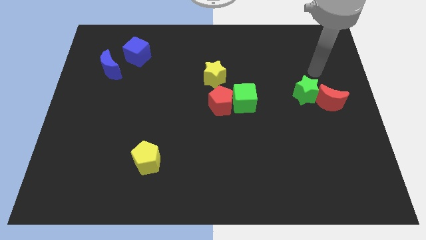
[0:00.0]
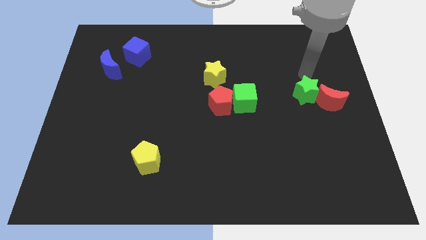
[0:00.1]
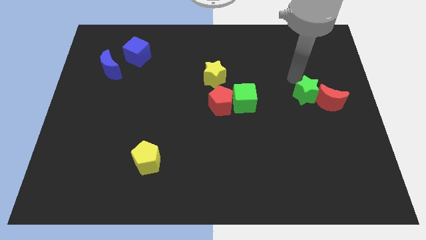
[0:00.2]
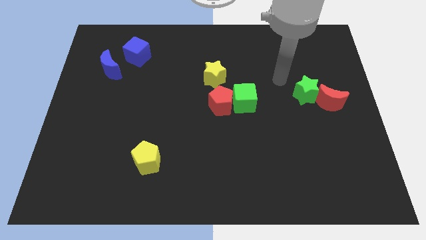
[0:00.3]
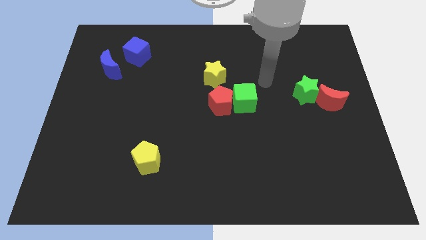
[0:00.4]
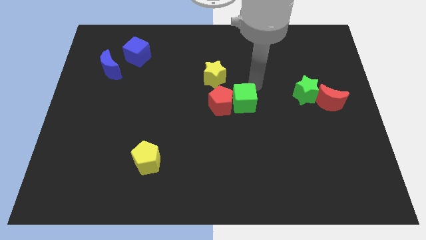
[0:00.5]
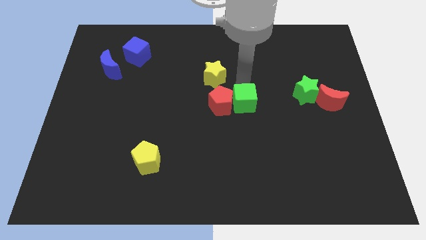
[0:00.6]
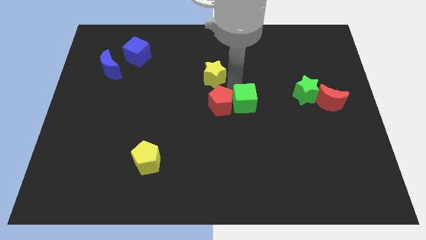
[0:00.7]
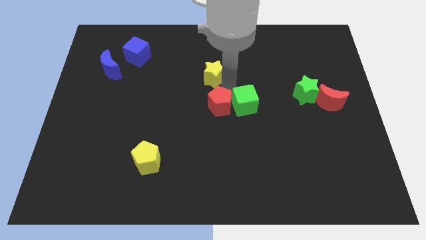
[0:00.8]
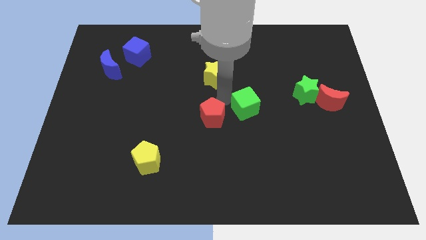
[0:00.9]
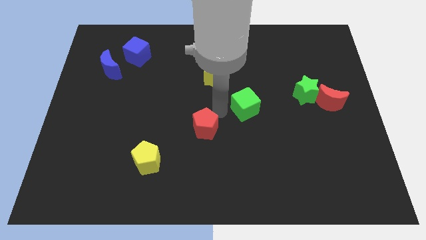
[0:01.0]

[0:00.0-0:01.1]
move the green cube away from the red pentagon

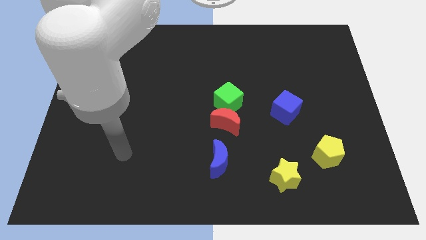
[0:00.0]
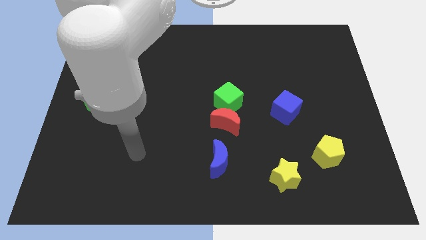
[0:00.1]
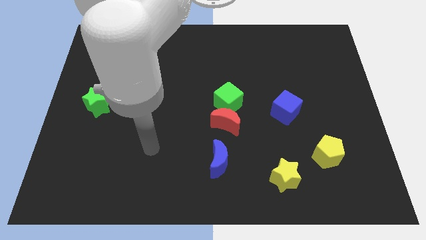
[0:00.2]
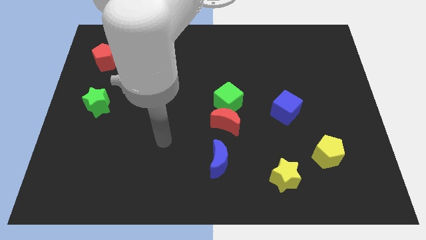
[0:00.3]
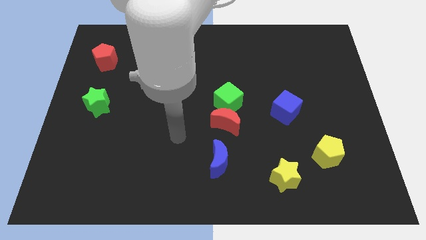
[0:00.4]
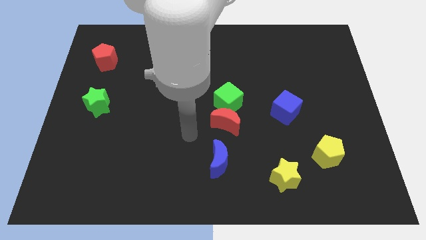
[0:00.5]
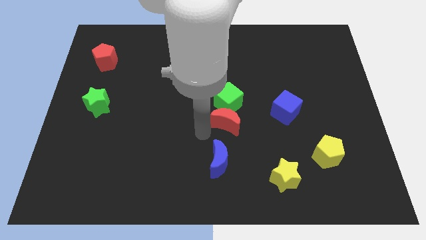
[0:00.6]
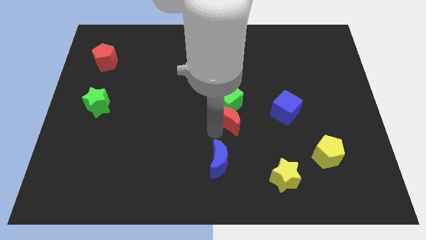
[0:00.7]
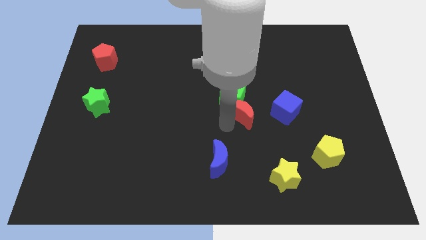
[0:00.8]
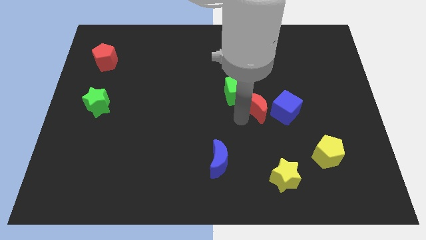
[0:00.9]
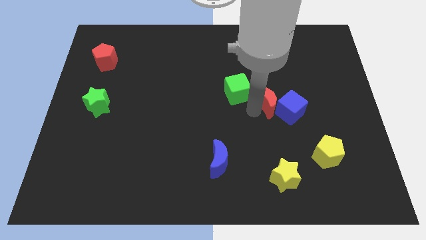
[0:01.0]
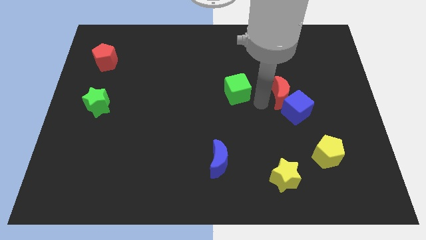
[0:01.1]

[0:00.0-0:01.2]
separate the green cube from the red moon

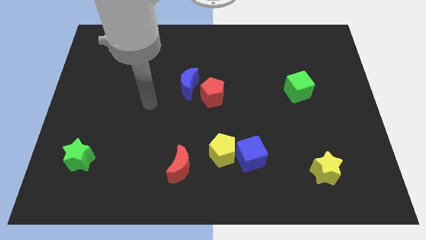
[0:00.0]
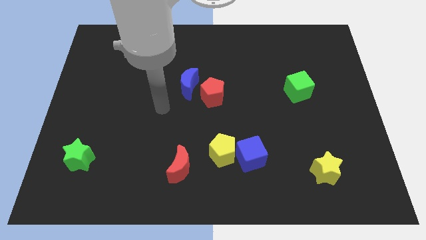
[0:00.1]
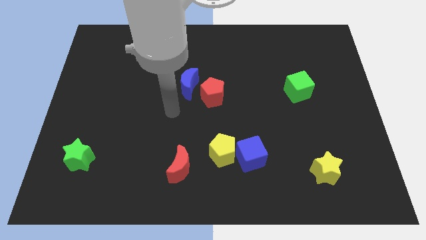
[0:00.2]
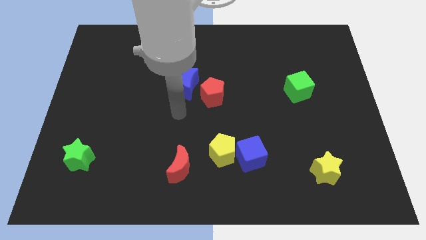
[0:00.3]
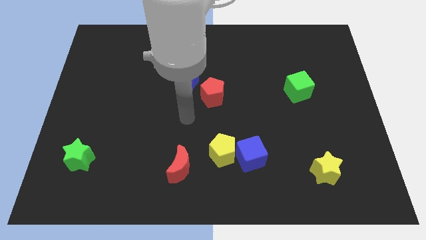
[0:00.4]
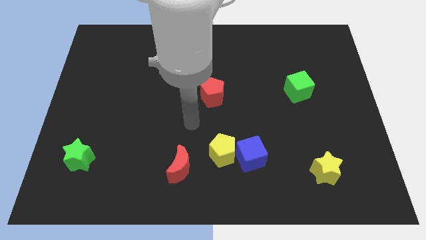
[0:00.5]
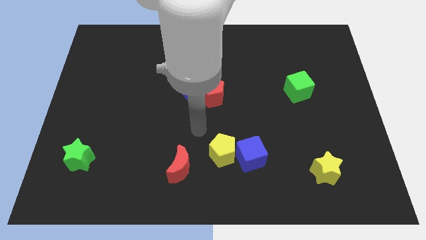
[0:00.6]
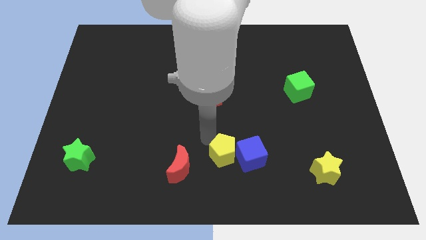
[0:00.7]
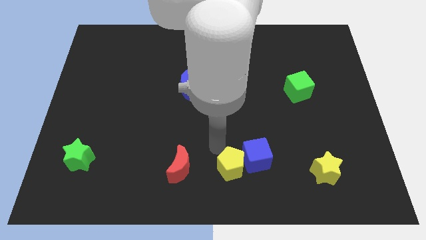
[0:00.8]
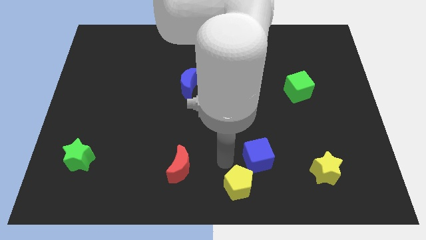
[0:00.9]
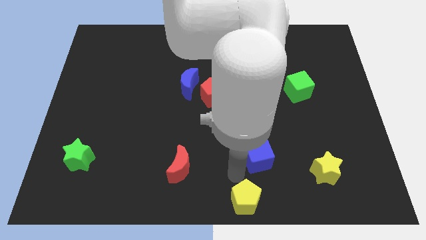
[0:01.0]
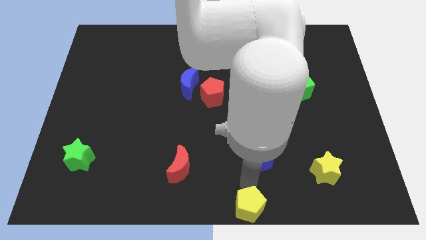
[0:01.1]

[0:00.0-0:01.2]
pull the blue cube apart from the yellow pentagon

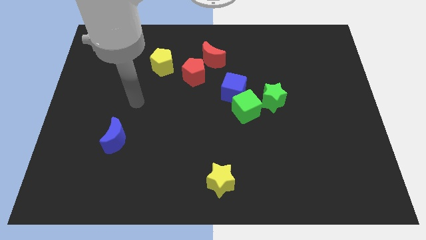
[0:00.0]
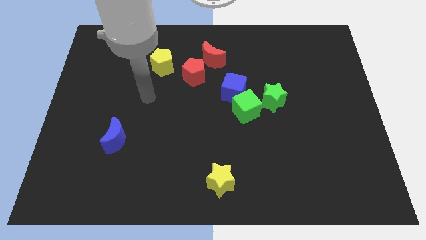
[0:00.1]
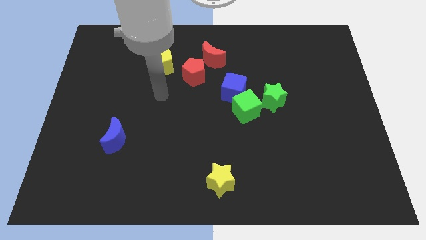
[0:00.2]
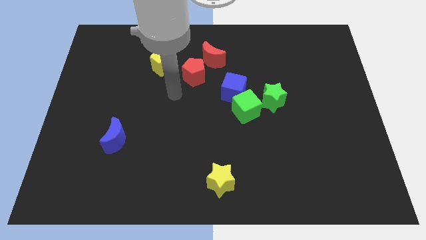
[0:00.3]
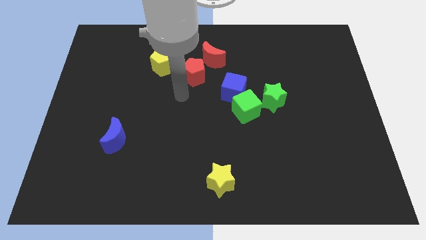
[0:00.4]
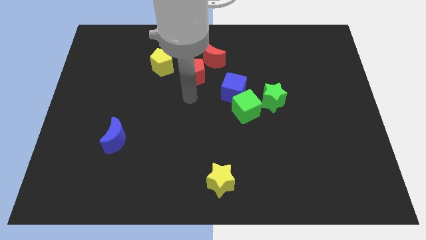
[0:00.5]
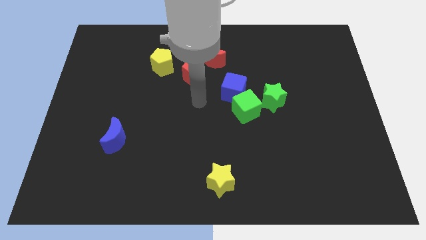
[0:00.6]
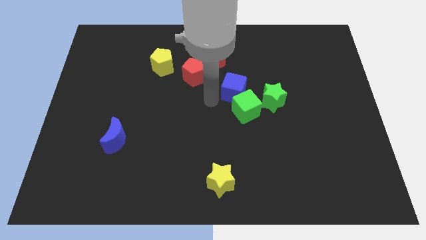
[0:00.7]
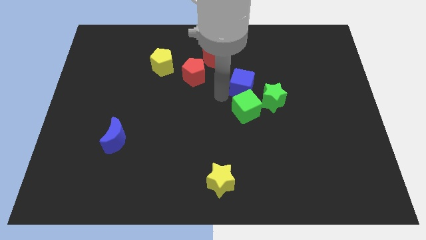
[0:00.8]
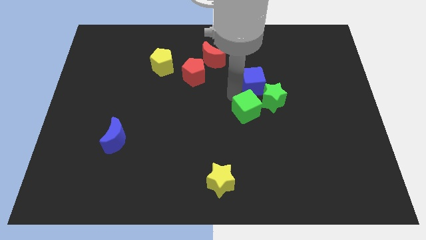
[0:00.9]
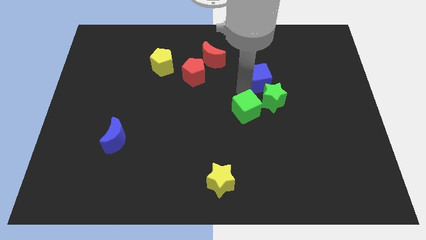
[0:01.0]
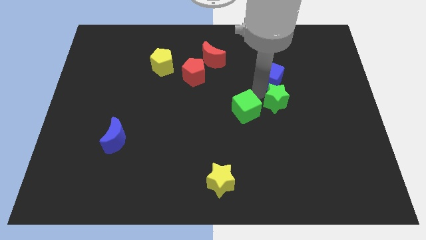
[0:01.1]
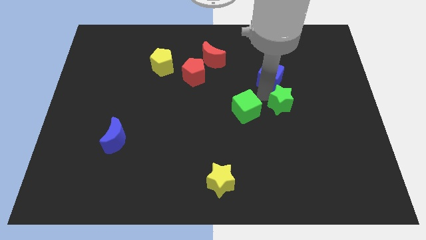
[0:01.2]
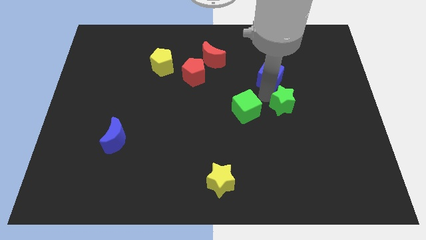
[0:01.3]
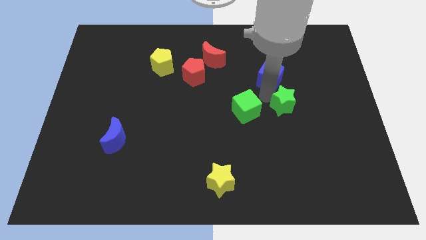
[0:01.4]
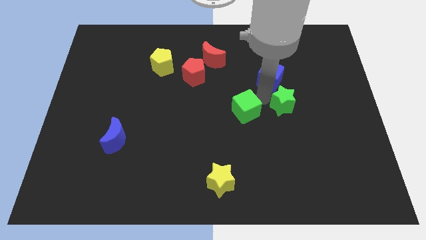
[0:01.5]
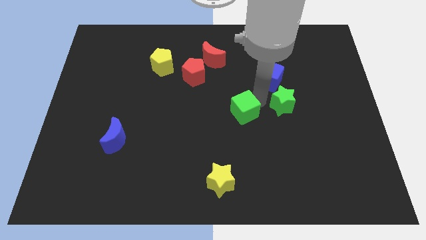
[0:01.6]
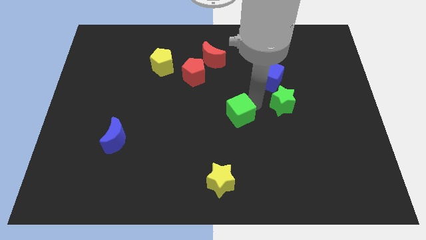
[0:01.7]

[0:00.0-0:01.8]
move the green cube away from the blue cube and green star

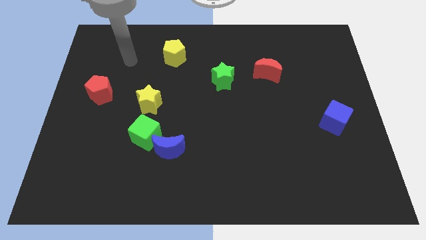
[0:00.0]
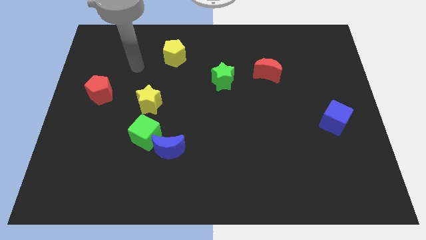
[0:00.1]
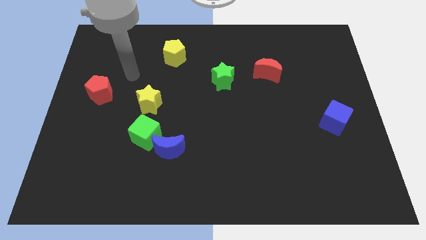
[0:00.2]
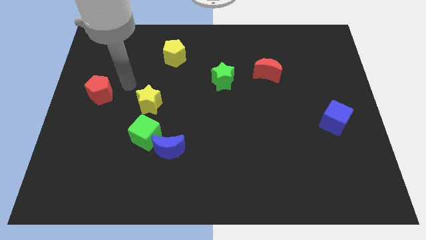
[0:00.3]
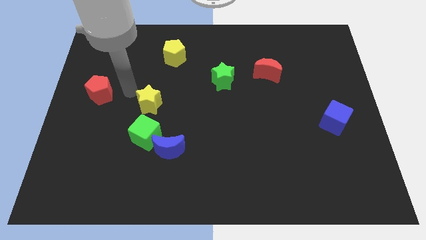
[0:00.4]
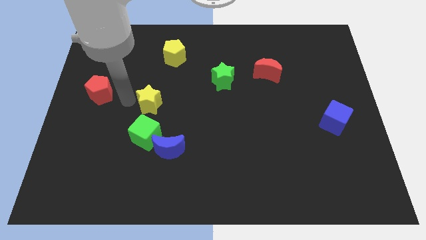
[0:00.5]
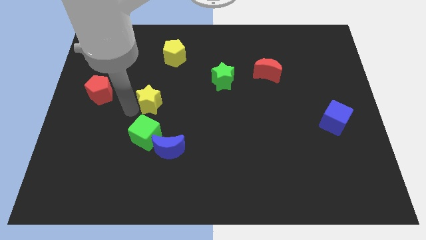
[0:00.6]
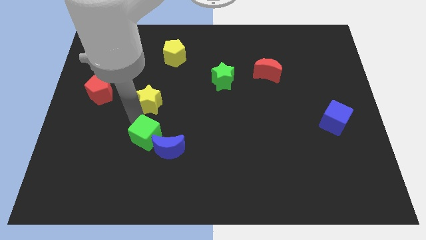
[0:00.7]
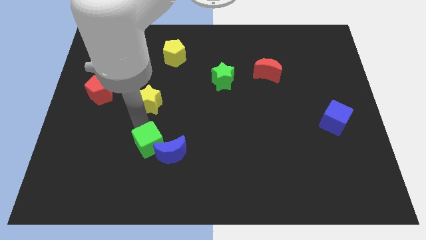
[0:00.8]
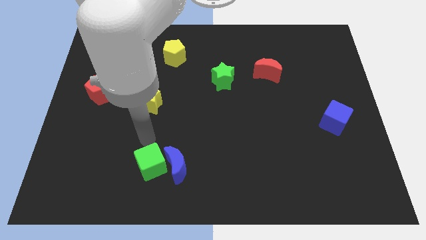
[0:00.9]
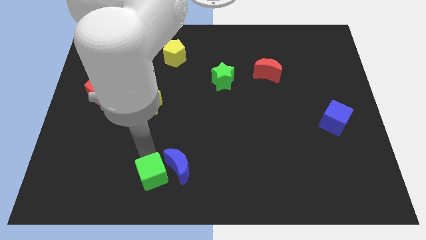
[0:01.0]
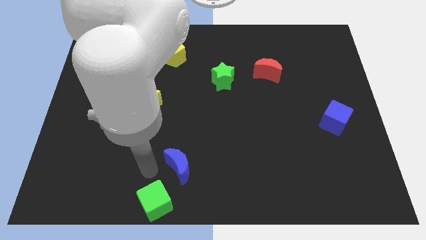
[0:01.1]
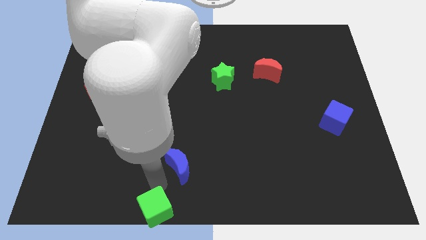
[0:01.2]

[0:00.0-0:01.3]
pull the blue moon apart from the green cube

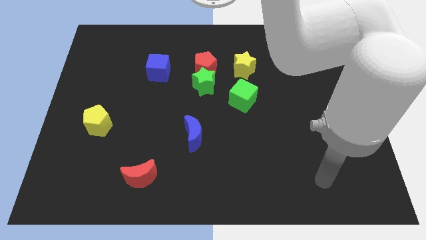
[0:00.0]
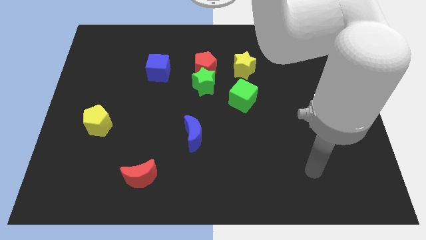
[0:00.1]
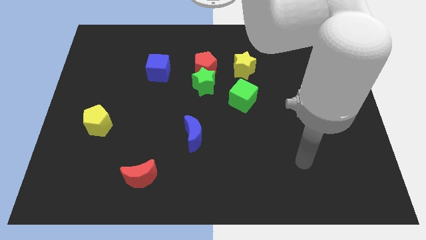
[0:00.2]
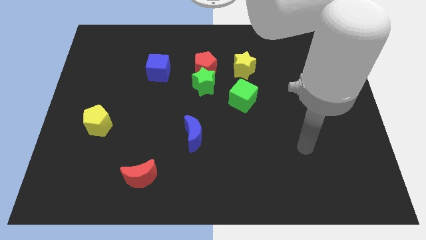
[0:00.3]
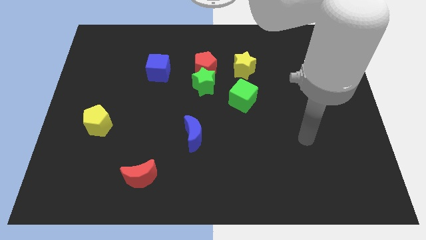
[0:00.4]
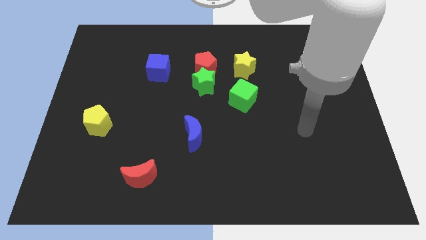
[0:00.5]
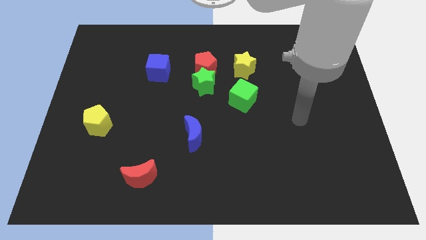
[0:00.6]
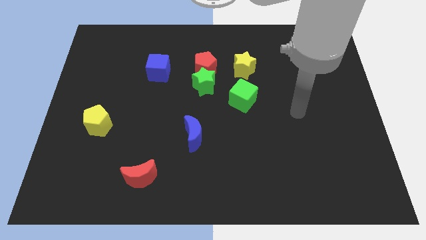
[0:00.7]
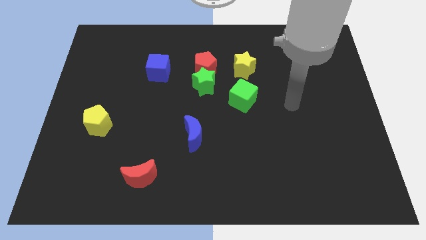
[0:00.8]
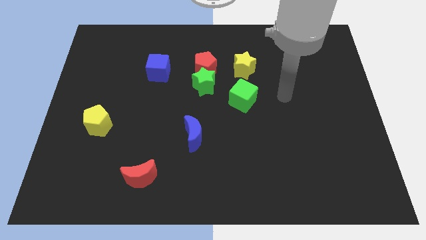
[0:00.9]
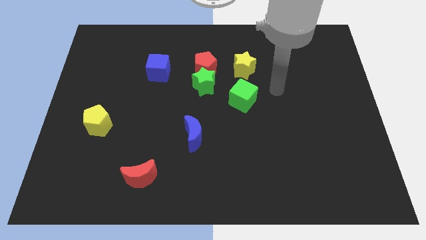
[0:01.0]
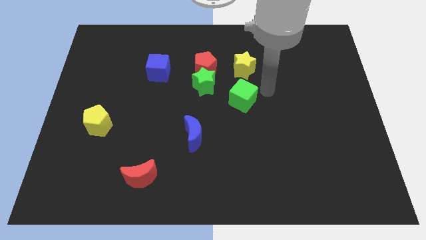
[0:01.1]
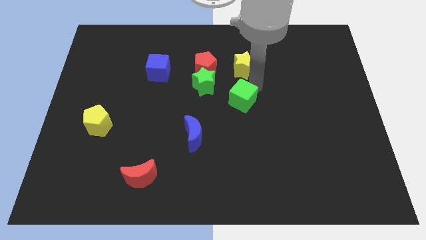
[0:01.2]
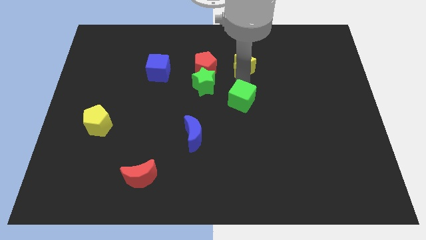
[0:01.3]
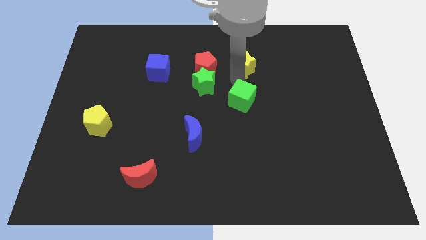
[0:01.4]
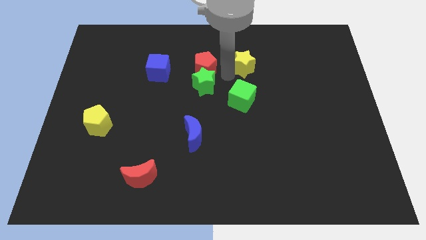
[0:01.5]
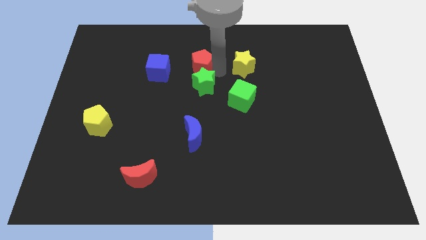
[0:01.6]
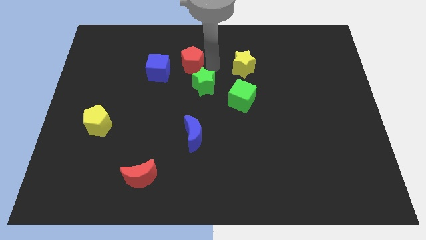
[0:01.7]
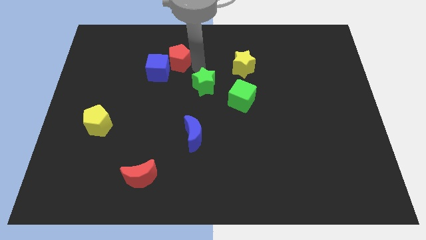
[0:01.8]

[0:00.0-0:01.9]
separate the green star from the red pentagon

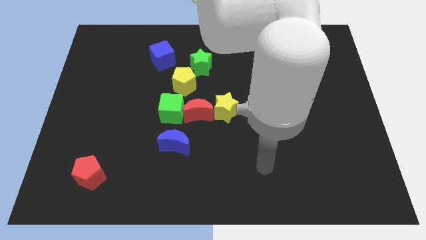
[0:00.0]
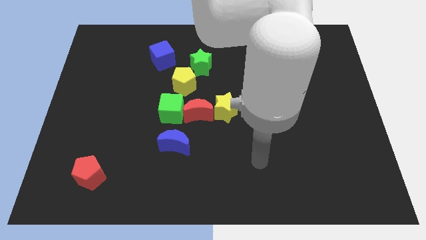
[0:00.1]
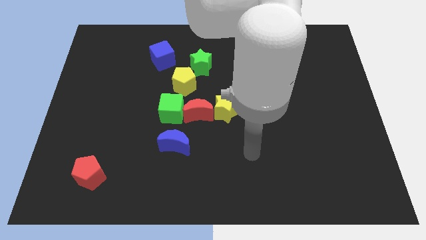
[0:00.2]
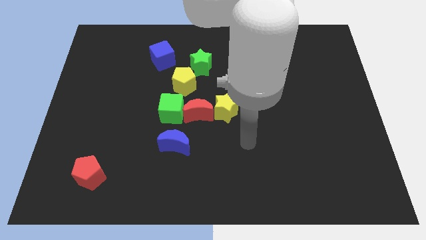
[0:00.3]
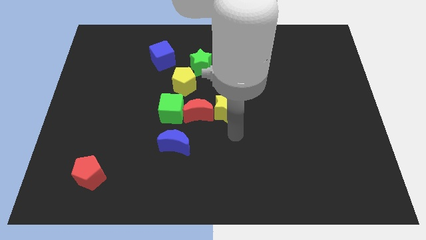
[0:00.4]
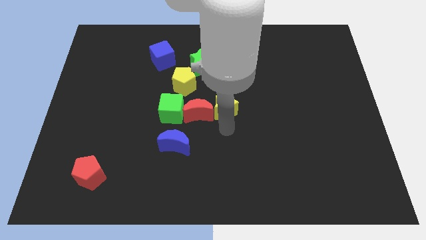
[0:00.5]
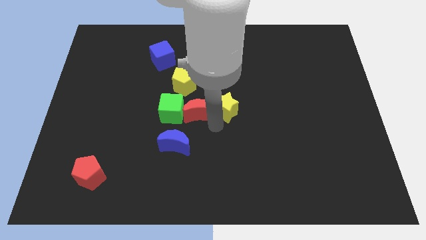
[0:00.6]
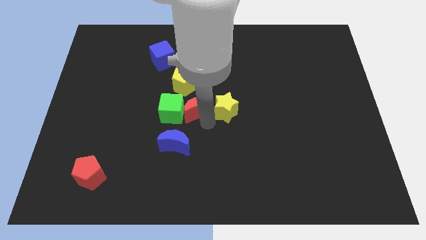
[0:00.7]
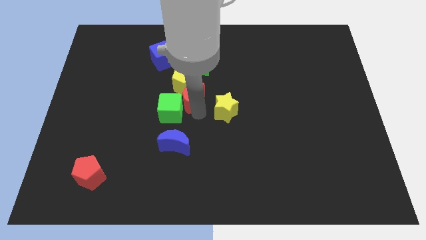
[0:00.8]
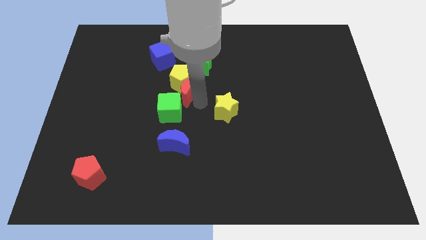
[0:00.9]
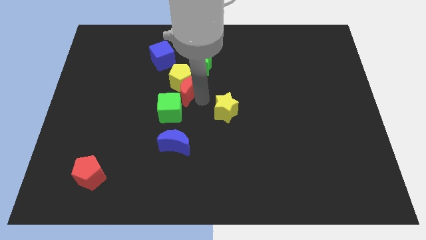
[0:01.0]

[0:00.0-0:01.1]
separate the yellow star from the red moon
